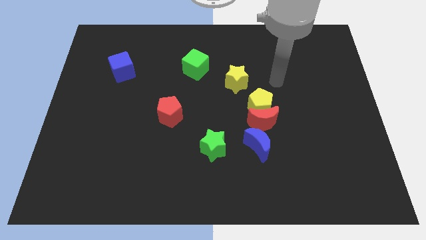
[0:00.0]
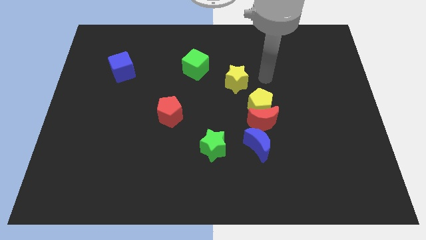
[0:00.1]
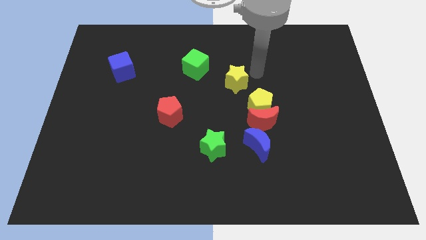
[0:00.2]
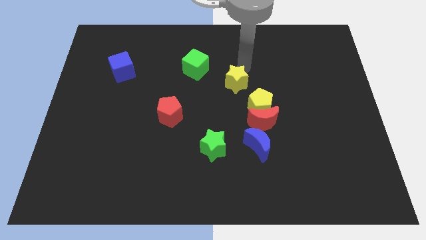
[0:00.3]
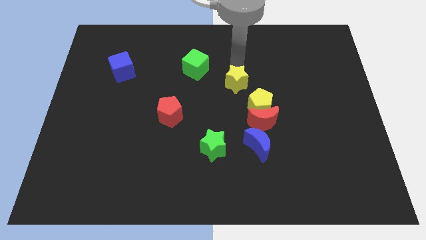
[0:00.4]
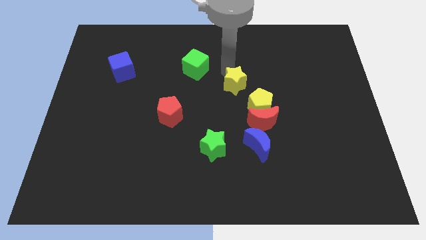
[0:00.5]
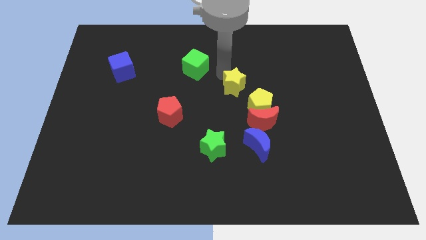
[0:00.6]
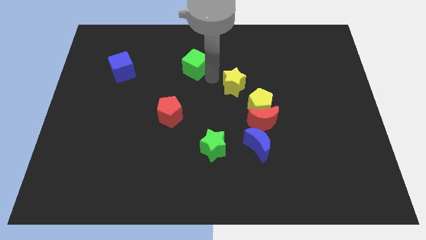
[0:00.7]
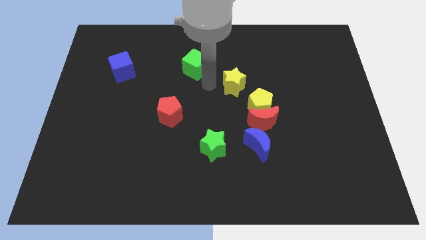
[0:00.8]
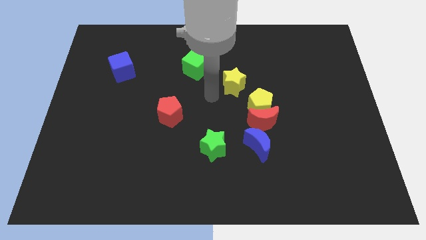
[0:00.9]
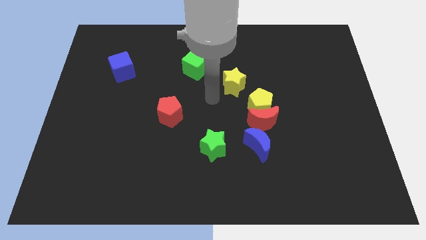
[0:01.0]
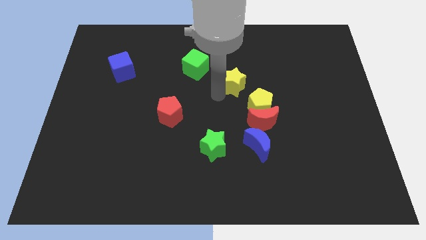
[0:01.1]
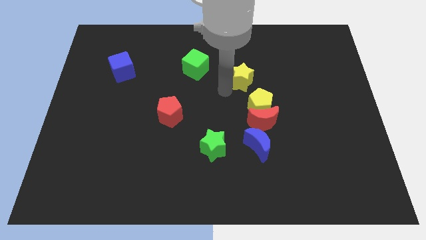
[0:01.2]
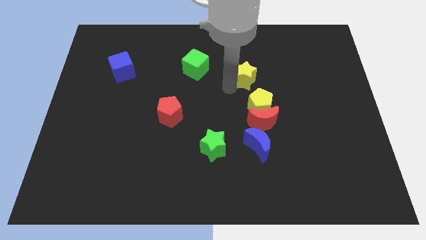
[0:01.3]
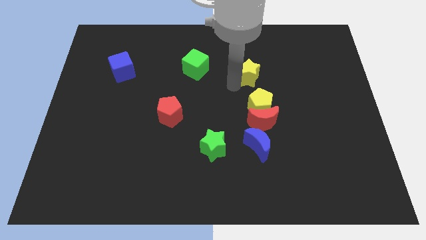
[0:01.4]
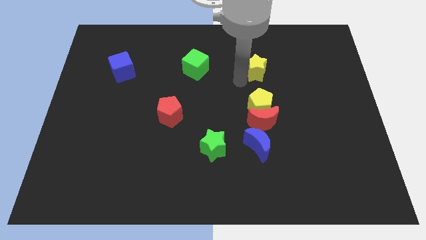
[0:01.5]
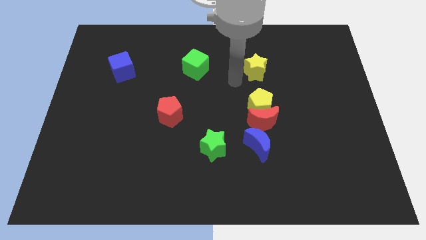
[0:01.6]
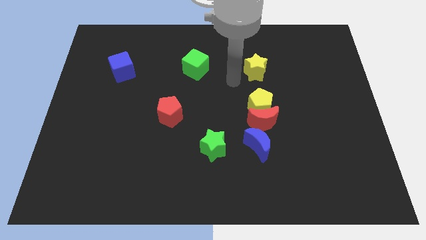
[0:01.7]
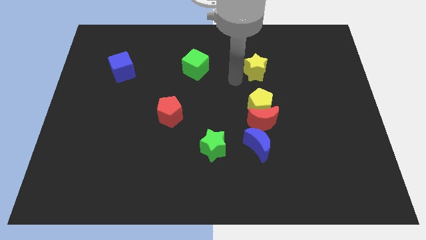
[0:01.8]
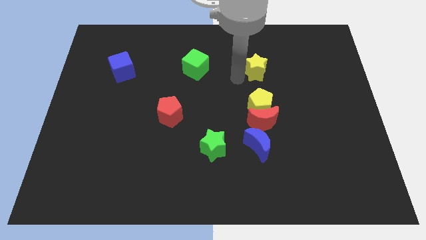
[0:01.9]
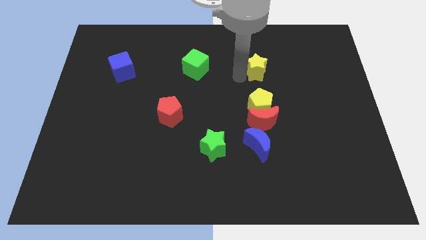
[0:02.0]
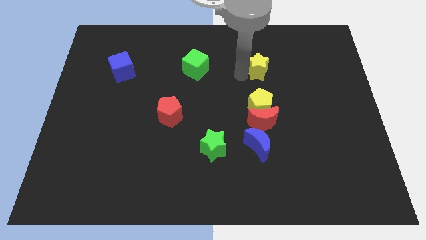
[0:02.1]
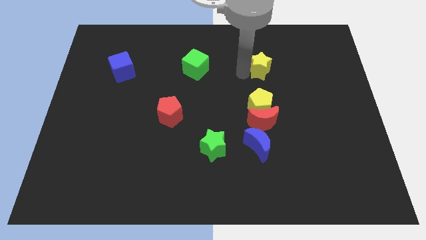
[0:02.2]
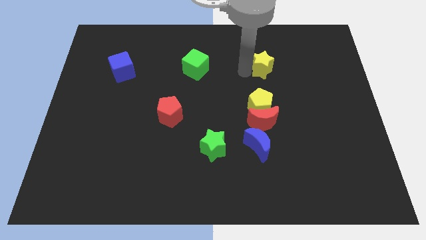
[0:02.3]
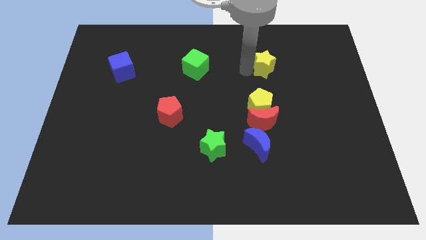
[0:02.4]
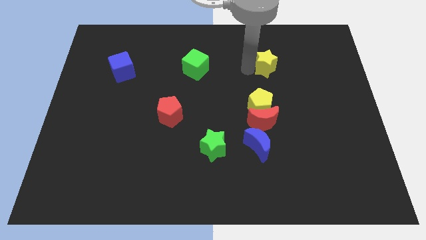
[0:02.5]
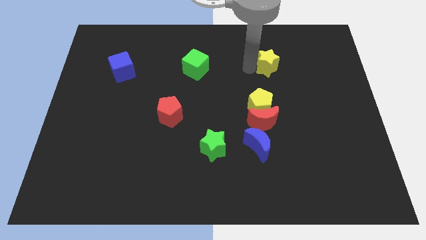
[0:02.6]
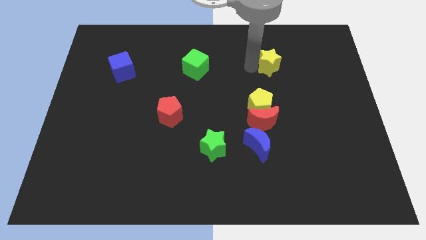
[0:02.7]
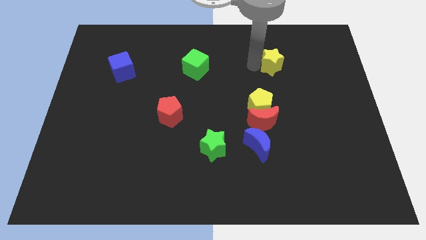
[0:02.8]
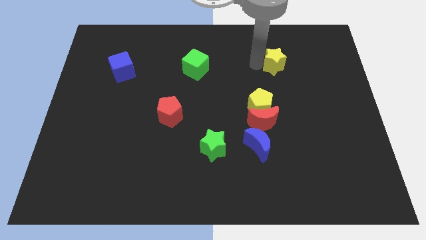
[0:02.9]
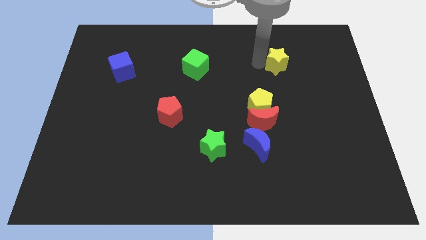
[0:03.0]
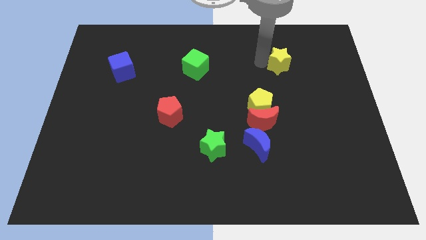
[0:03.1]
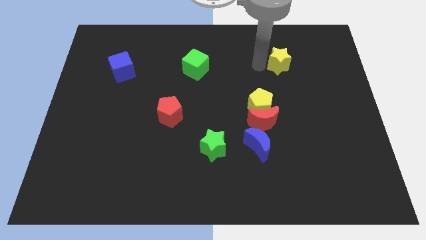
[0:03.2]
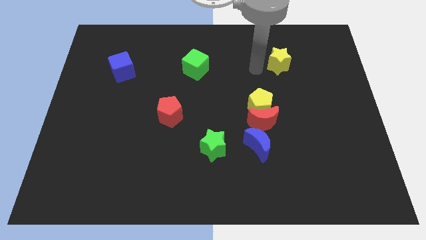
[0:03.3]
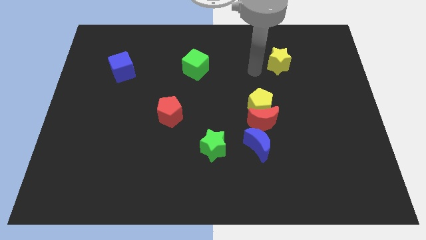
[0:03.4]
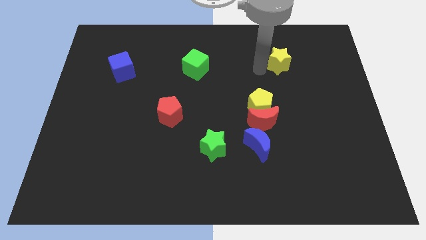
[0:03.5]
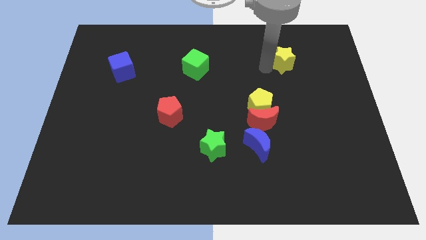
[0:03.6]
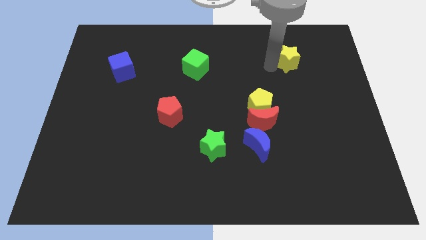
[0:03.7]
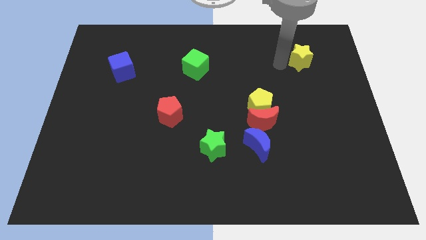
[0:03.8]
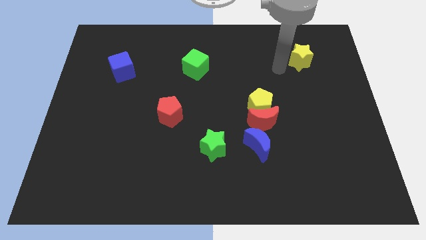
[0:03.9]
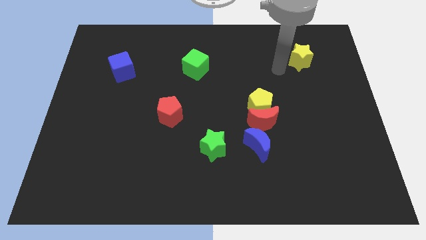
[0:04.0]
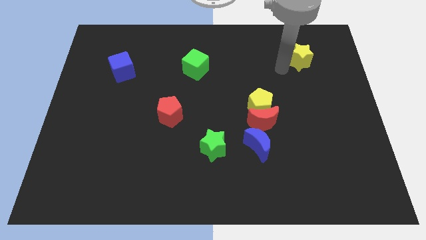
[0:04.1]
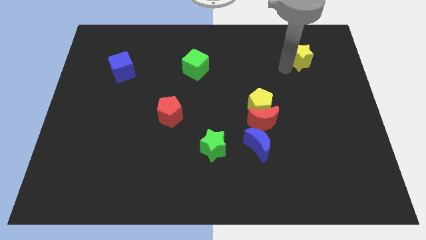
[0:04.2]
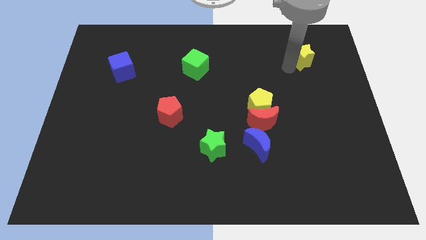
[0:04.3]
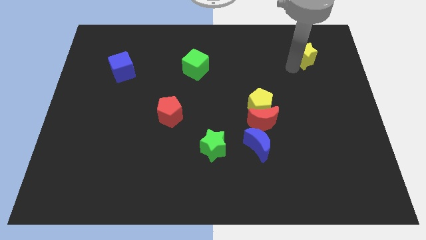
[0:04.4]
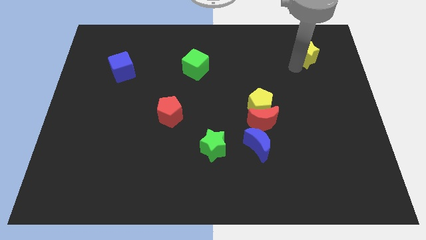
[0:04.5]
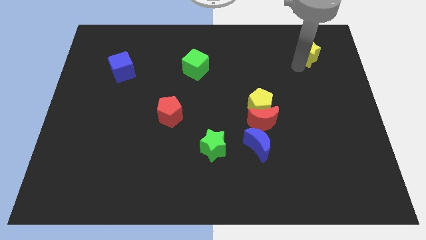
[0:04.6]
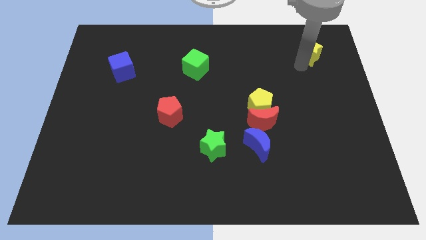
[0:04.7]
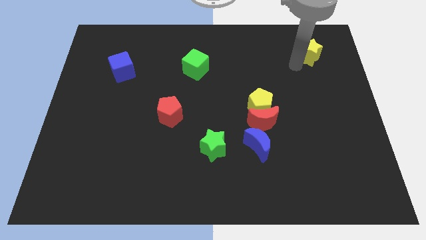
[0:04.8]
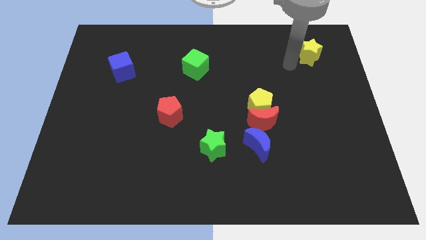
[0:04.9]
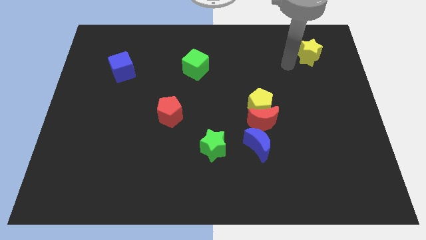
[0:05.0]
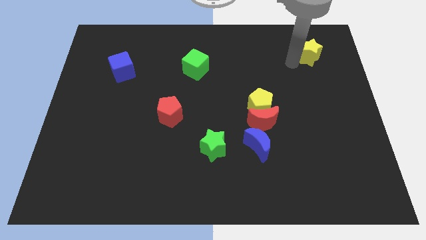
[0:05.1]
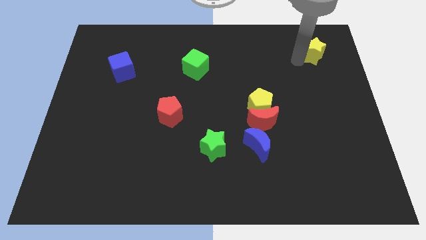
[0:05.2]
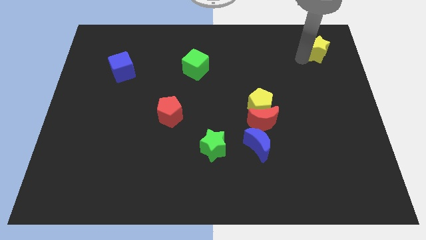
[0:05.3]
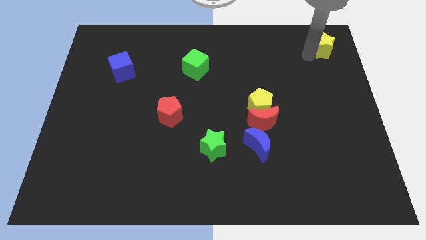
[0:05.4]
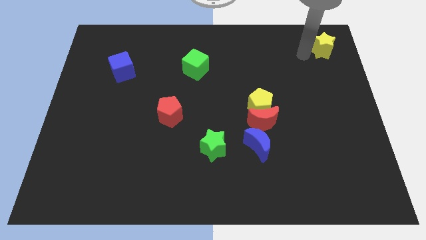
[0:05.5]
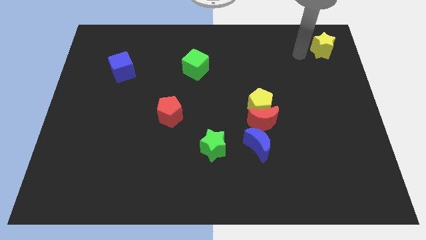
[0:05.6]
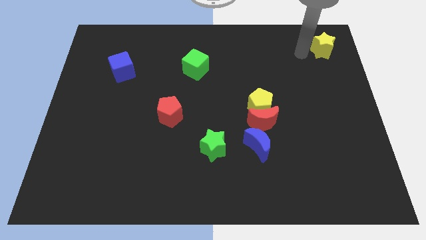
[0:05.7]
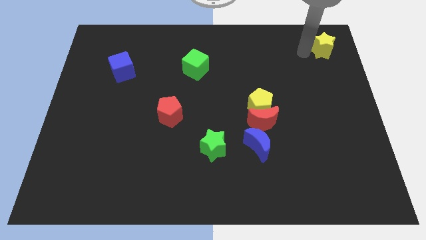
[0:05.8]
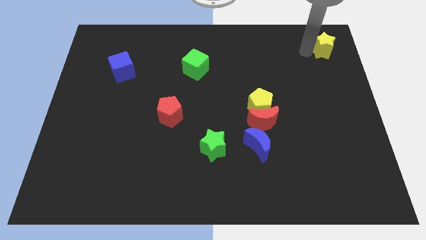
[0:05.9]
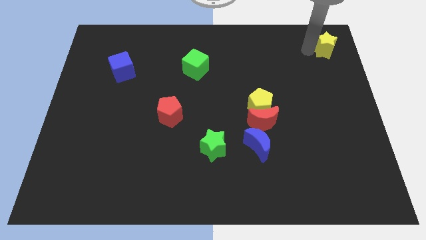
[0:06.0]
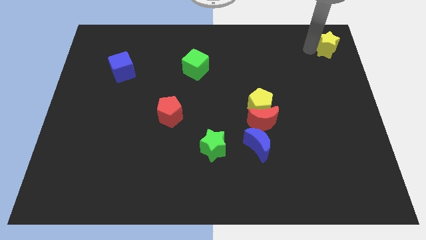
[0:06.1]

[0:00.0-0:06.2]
push the yellow star to the top right
